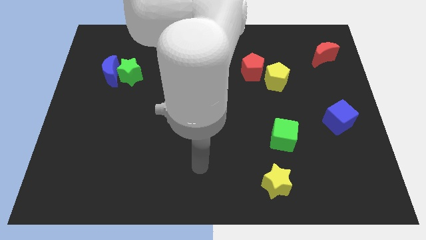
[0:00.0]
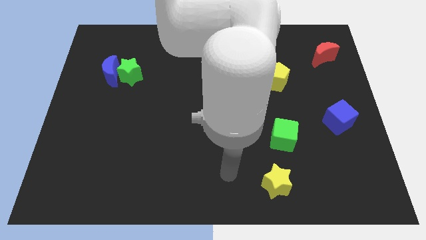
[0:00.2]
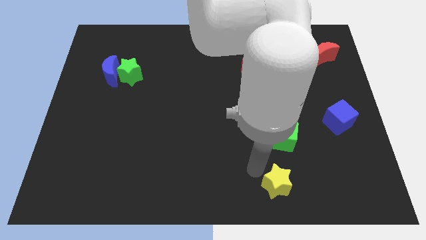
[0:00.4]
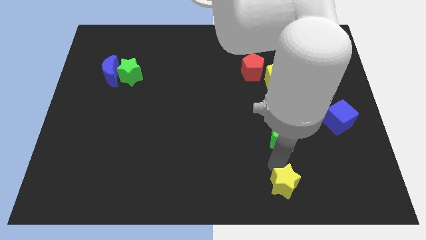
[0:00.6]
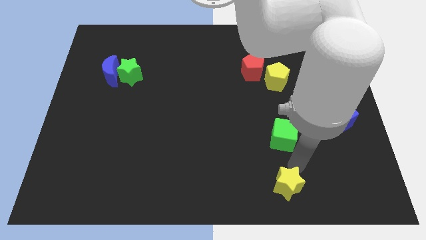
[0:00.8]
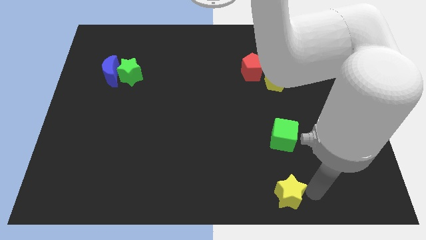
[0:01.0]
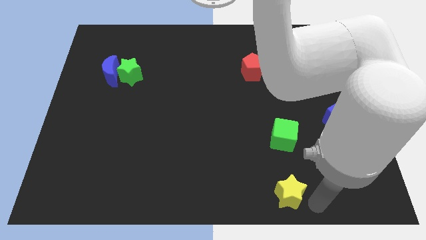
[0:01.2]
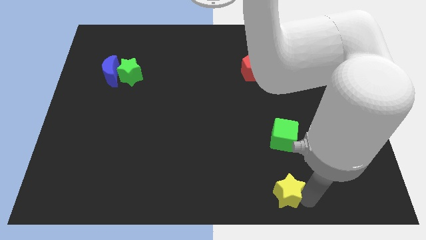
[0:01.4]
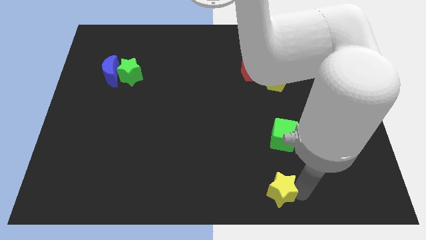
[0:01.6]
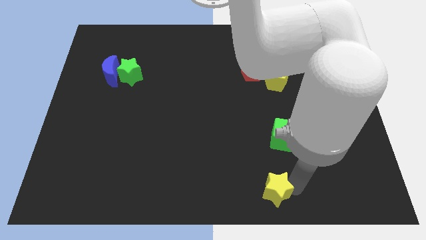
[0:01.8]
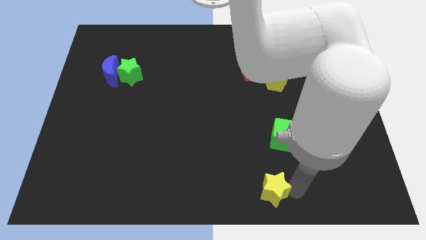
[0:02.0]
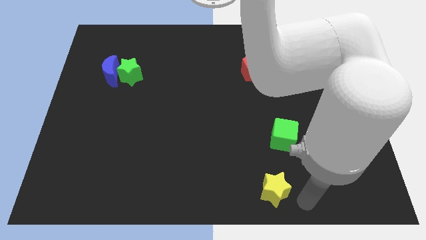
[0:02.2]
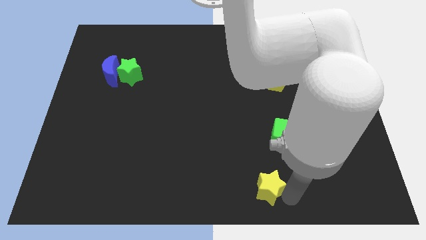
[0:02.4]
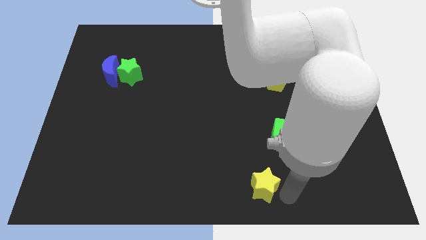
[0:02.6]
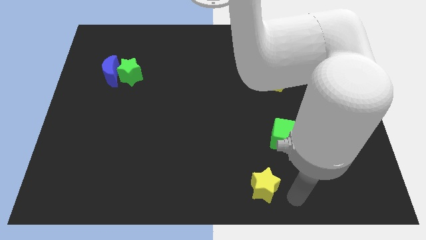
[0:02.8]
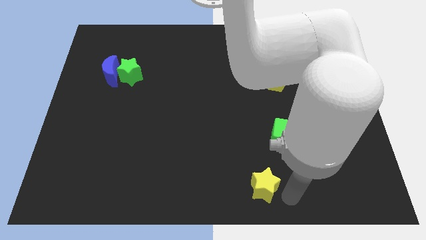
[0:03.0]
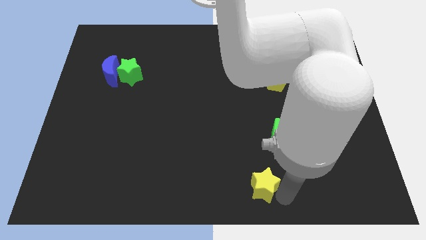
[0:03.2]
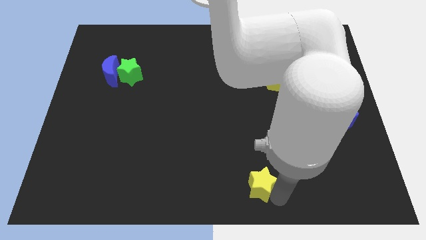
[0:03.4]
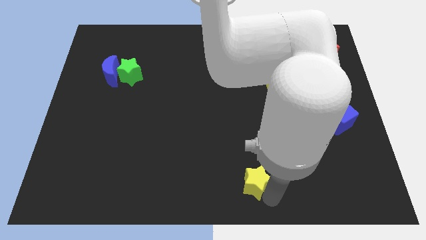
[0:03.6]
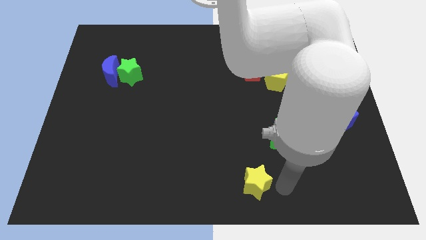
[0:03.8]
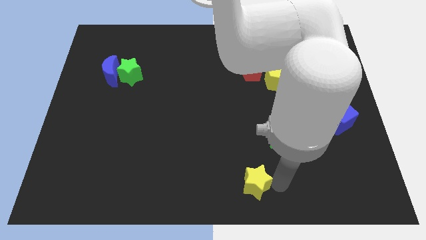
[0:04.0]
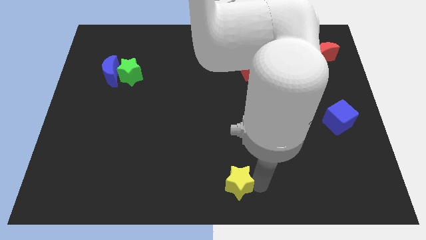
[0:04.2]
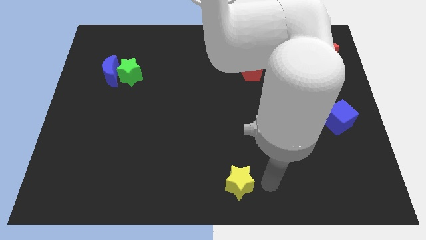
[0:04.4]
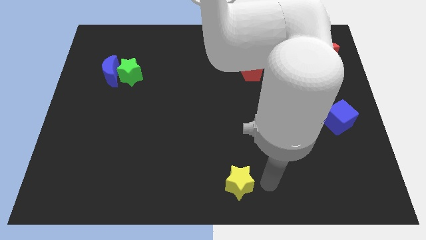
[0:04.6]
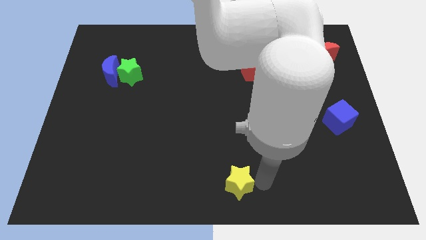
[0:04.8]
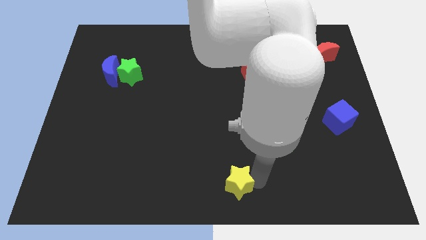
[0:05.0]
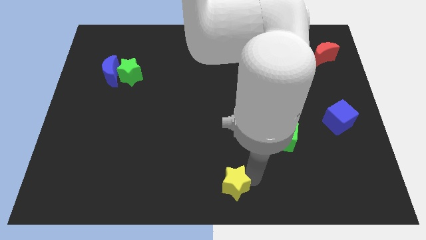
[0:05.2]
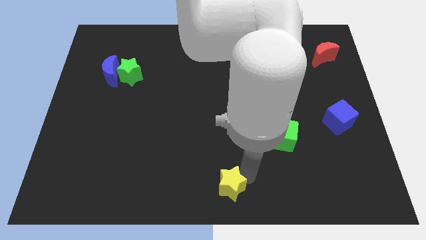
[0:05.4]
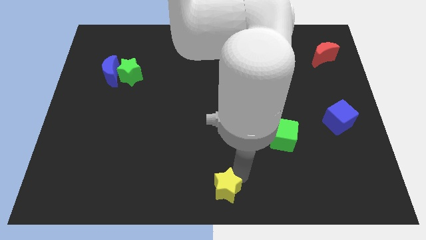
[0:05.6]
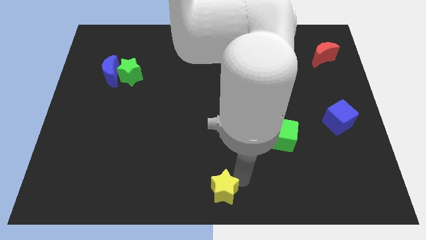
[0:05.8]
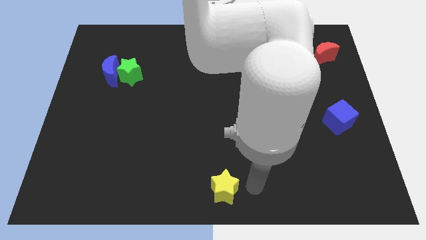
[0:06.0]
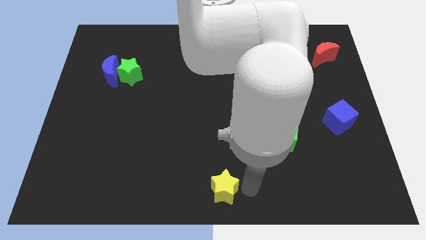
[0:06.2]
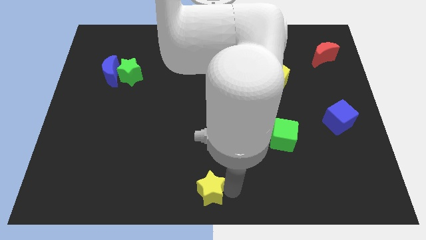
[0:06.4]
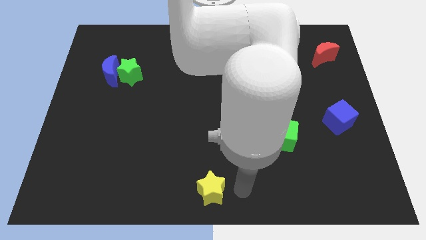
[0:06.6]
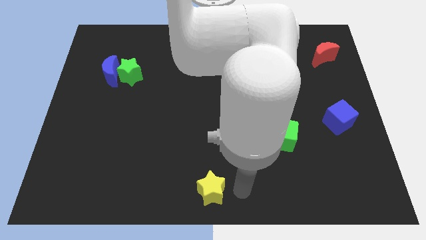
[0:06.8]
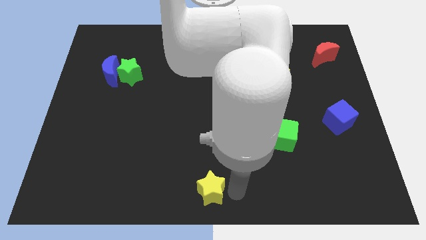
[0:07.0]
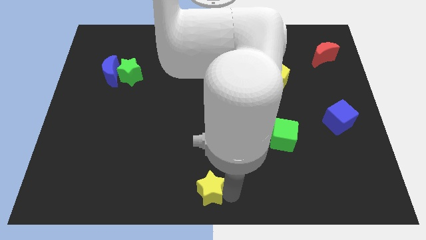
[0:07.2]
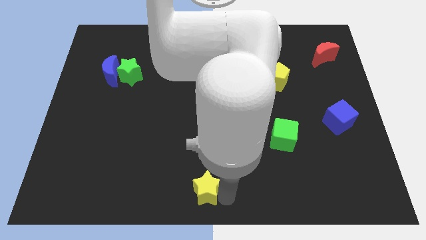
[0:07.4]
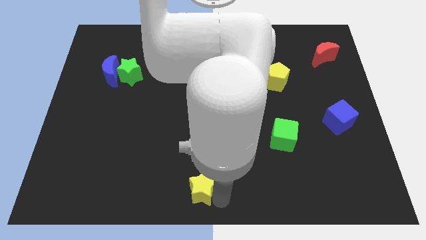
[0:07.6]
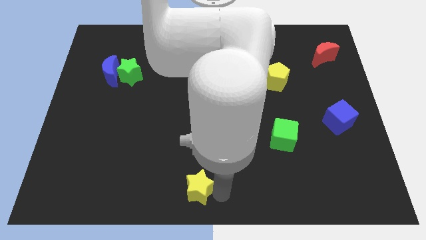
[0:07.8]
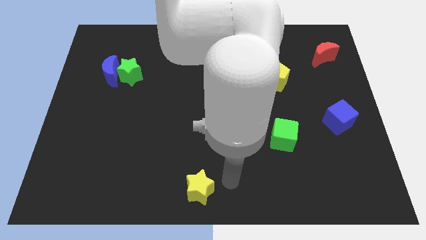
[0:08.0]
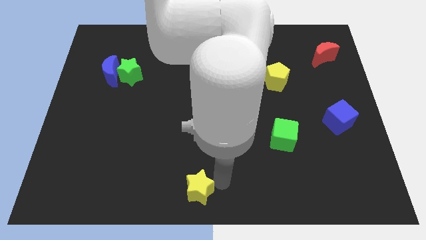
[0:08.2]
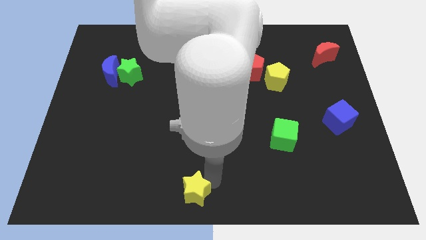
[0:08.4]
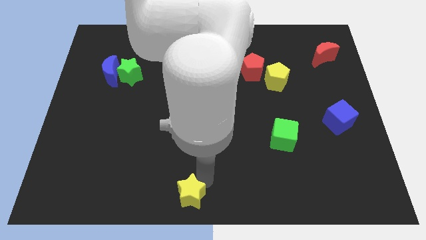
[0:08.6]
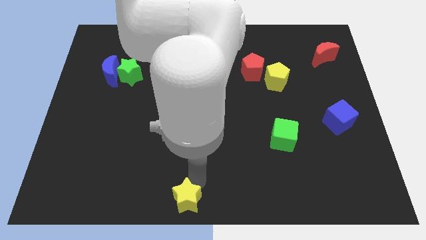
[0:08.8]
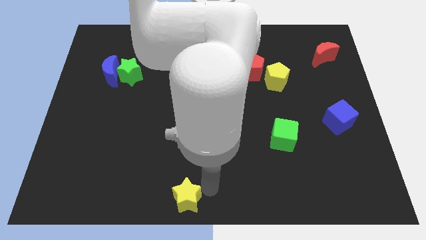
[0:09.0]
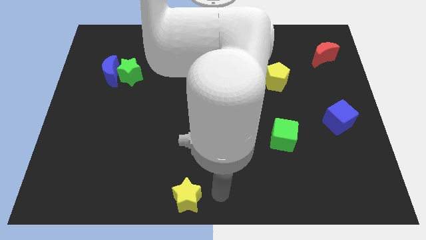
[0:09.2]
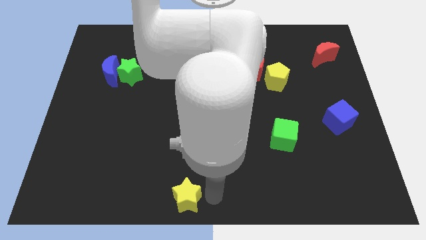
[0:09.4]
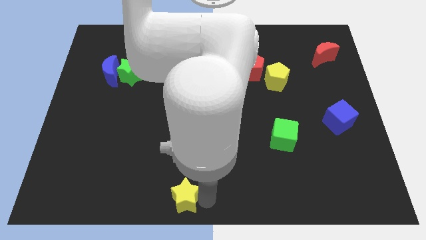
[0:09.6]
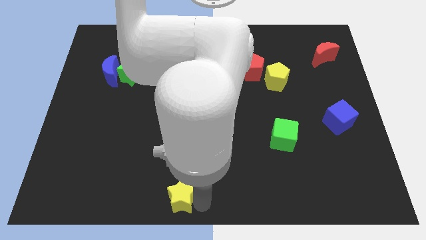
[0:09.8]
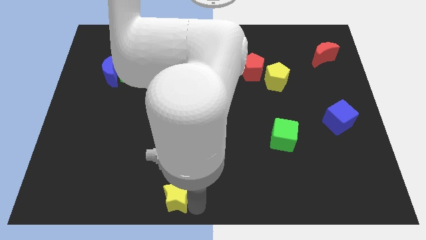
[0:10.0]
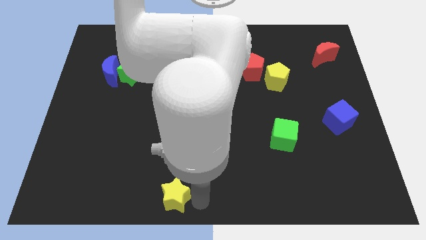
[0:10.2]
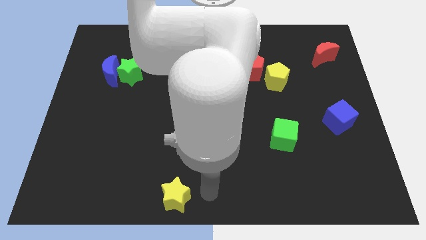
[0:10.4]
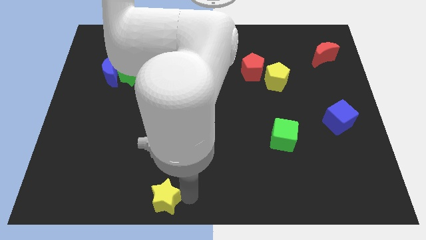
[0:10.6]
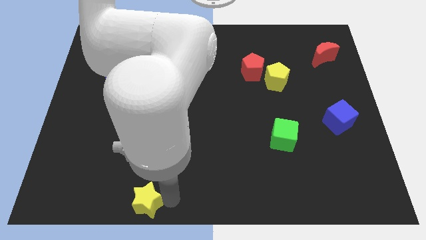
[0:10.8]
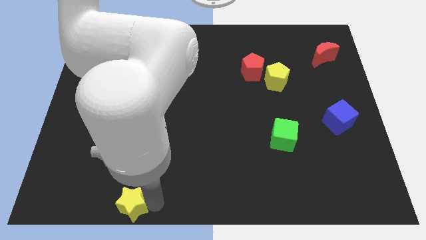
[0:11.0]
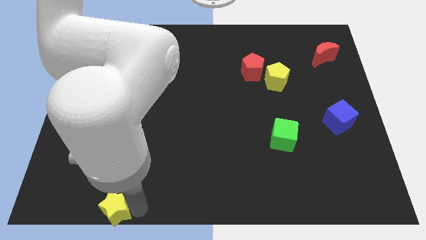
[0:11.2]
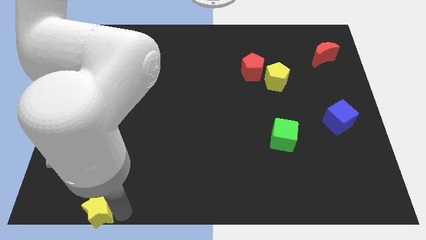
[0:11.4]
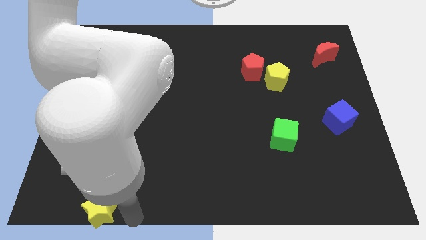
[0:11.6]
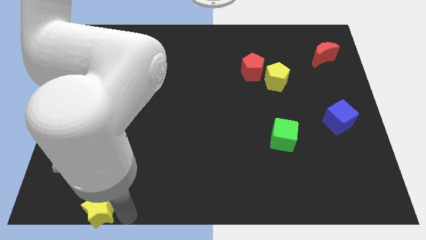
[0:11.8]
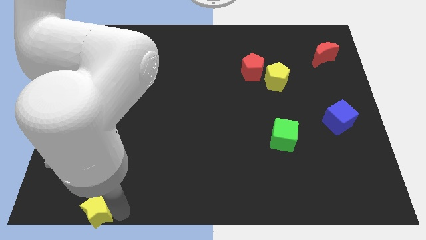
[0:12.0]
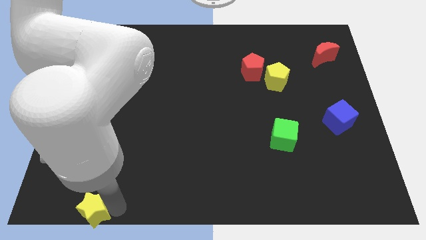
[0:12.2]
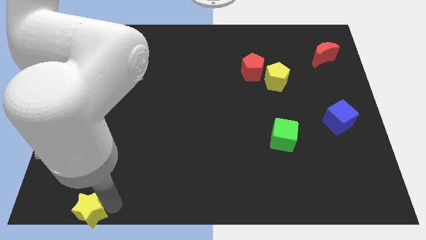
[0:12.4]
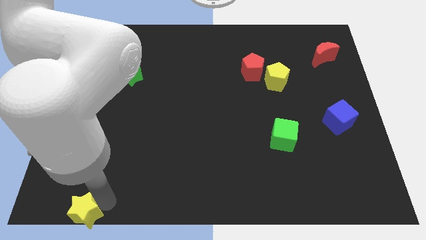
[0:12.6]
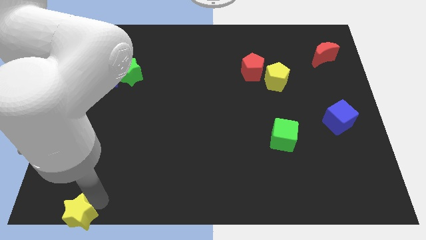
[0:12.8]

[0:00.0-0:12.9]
put the yellow star to the lower left corner

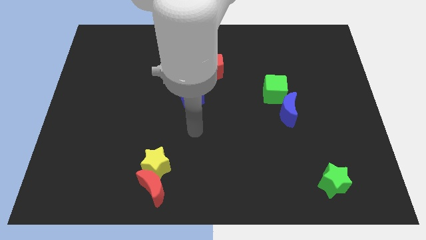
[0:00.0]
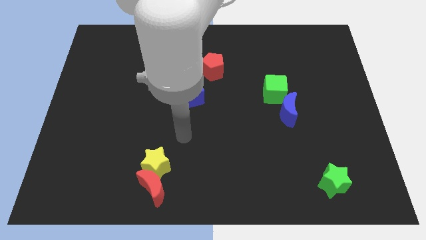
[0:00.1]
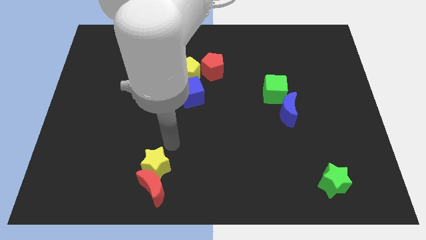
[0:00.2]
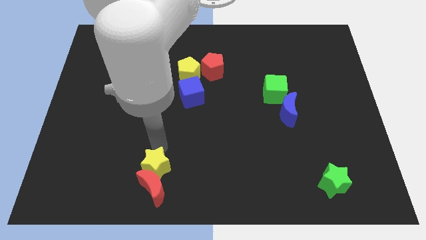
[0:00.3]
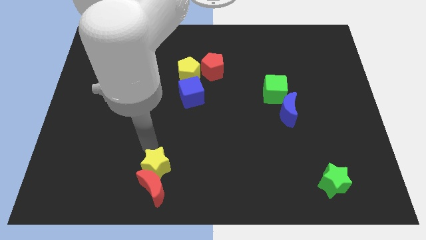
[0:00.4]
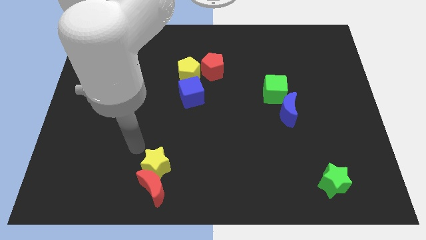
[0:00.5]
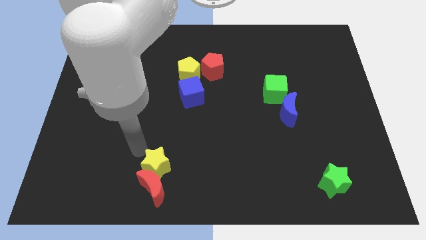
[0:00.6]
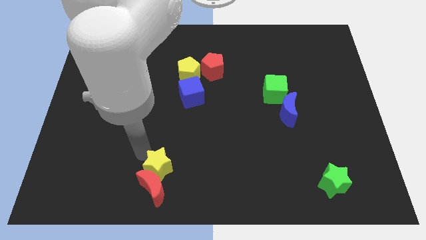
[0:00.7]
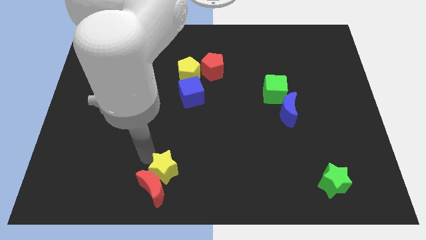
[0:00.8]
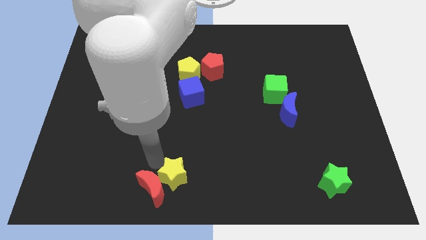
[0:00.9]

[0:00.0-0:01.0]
slide the yellow star to the bottom side

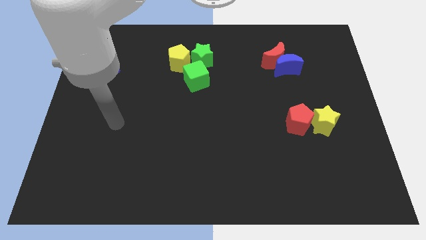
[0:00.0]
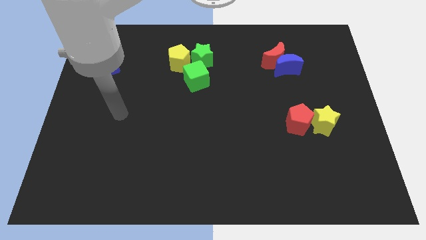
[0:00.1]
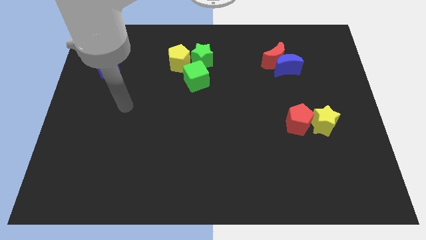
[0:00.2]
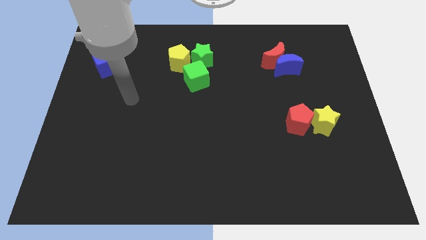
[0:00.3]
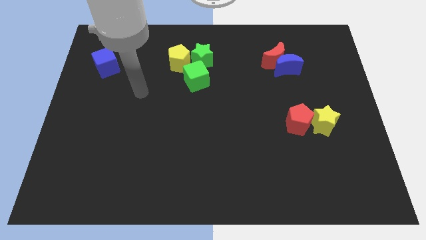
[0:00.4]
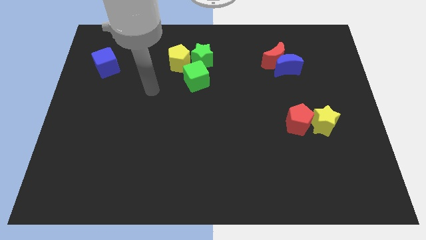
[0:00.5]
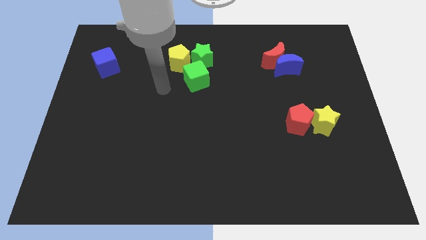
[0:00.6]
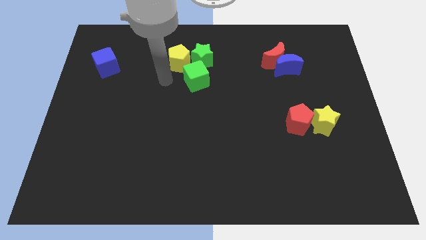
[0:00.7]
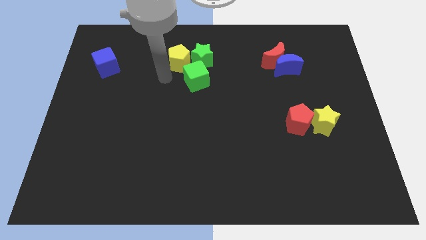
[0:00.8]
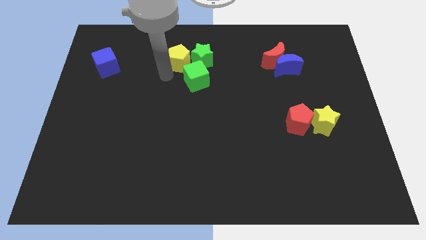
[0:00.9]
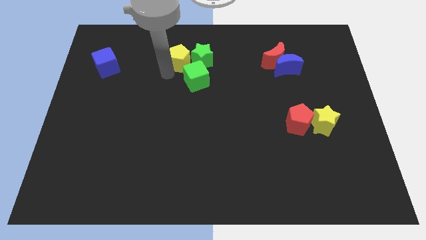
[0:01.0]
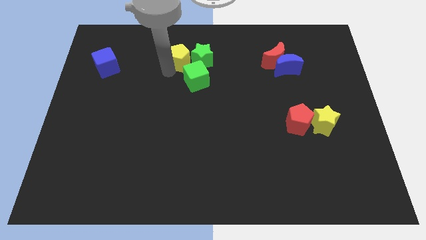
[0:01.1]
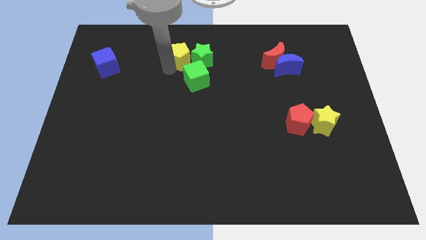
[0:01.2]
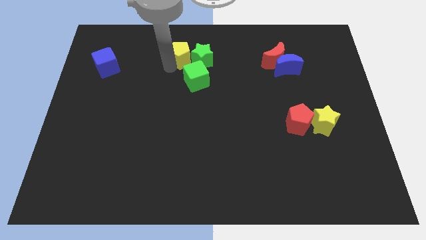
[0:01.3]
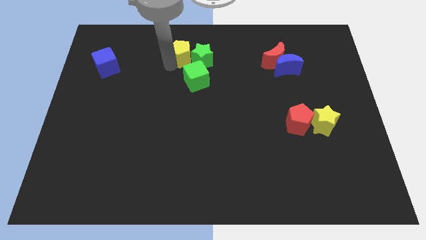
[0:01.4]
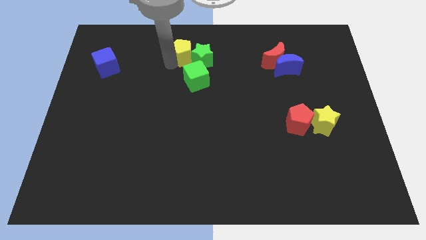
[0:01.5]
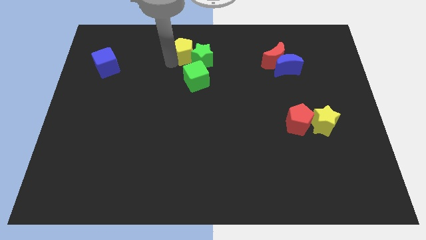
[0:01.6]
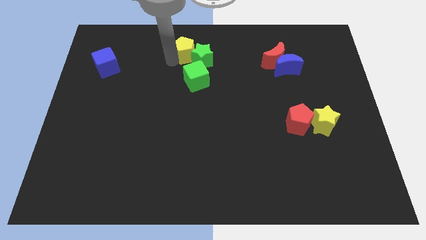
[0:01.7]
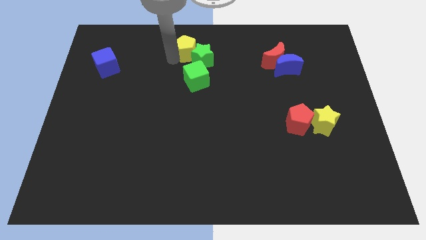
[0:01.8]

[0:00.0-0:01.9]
push the yellow pentagon to the top
